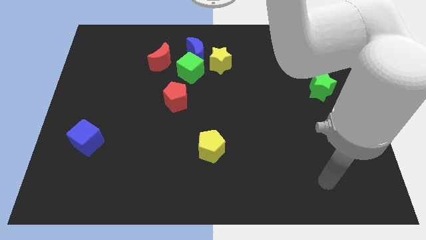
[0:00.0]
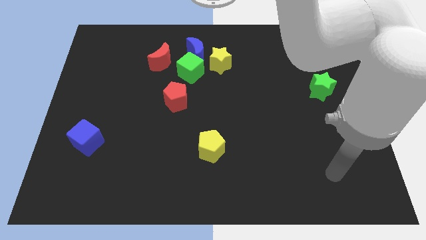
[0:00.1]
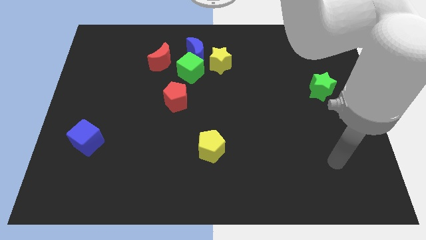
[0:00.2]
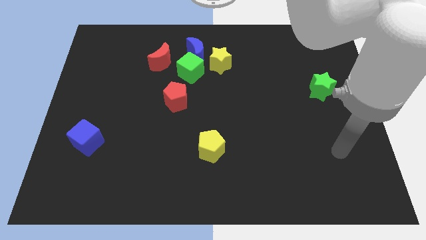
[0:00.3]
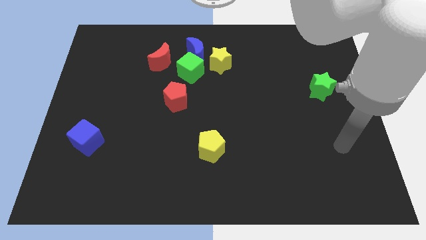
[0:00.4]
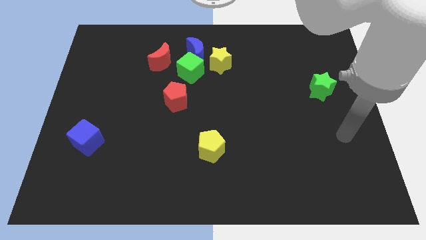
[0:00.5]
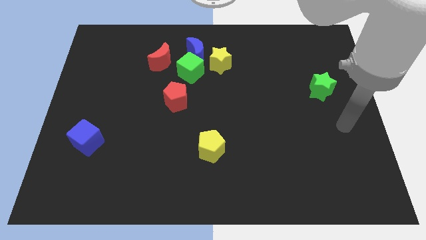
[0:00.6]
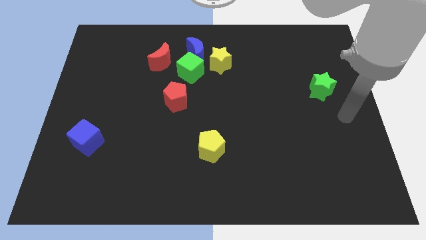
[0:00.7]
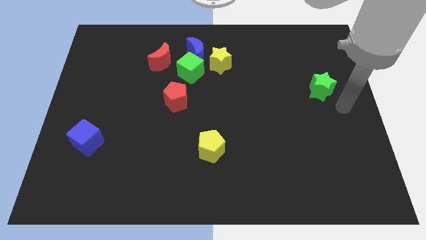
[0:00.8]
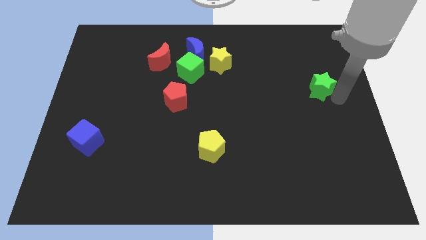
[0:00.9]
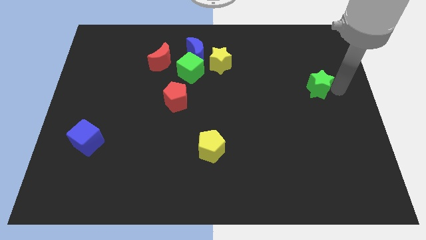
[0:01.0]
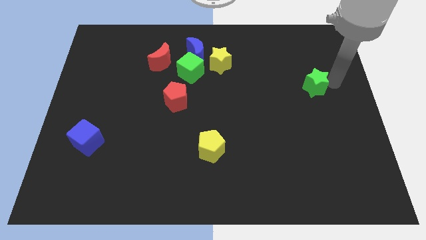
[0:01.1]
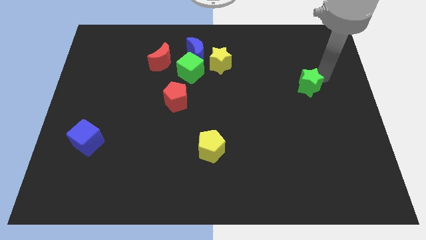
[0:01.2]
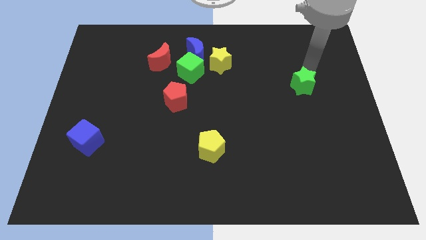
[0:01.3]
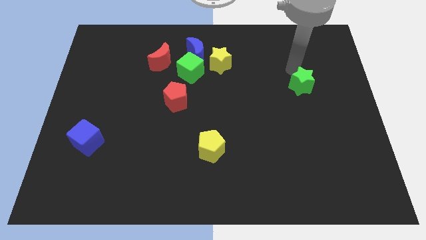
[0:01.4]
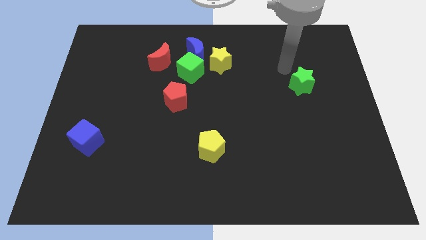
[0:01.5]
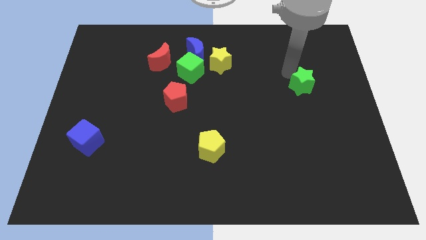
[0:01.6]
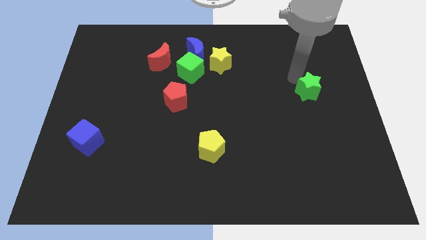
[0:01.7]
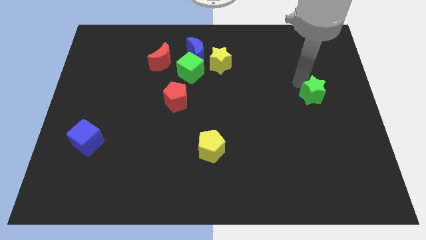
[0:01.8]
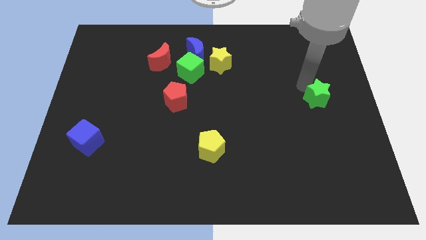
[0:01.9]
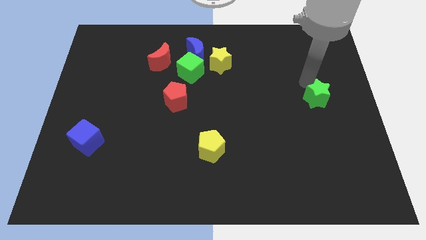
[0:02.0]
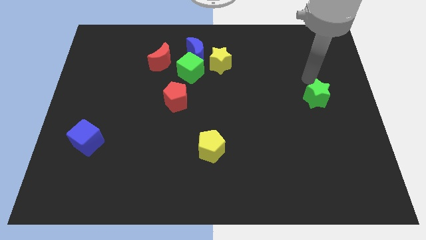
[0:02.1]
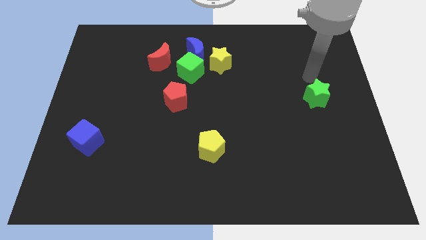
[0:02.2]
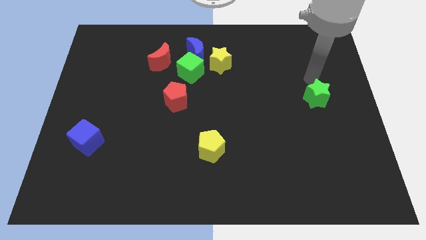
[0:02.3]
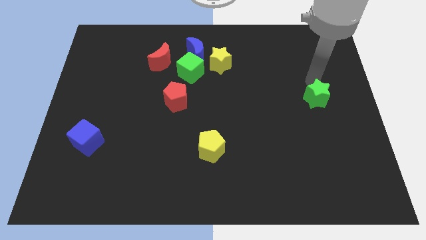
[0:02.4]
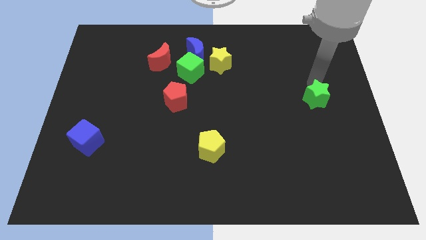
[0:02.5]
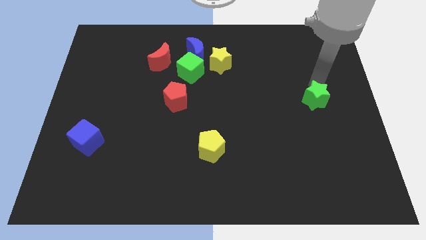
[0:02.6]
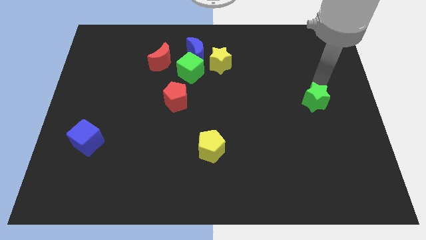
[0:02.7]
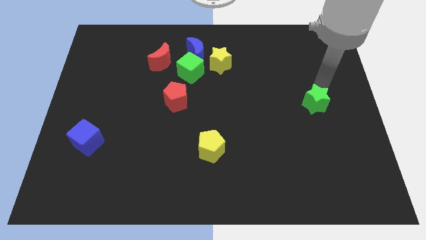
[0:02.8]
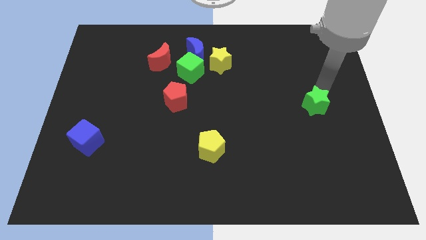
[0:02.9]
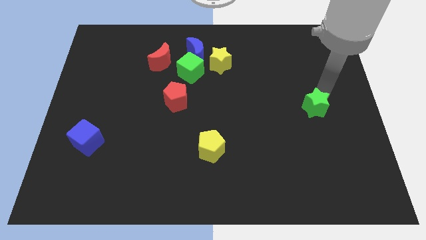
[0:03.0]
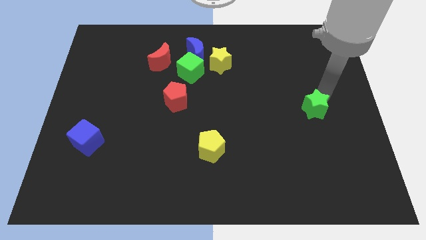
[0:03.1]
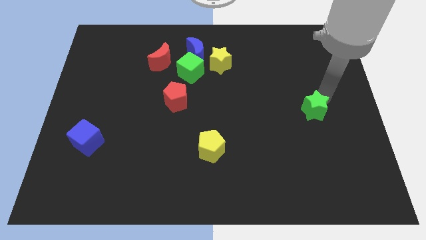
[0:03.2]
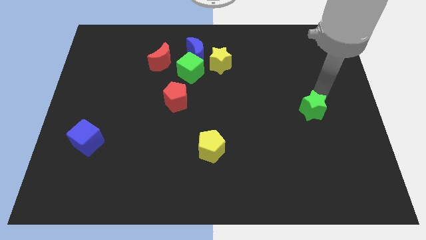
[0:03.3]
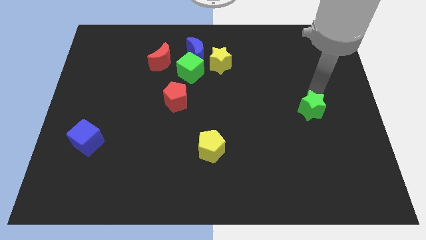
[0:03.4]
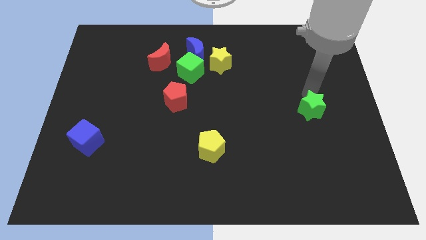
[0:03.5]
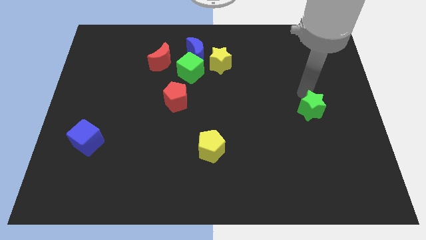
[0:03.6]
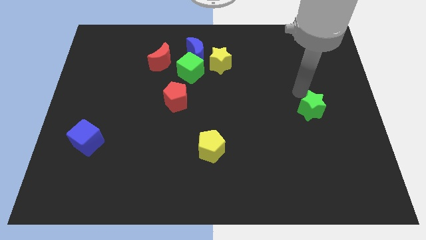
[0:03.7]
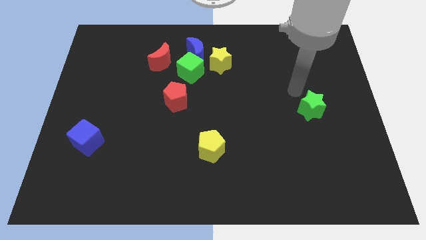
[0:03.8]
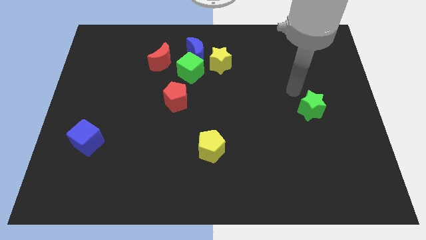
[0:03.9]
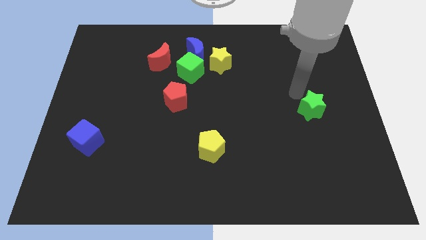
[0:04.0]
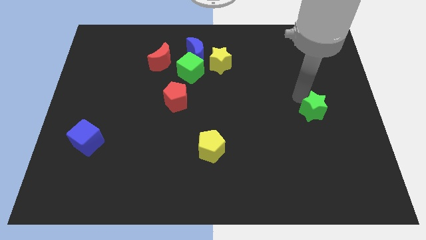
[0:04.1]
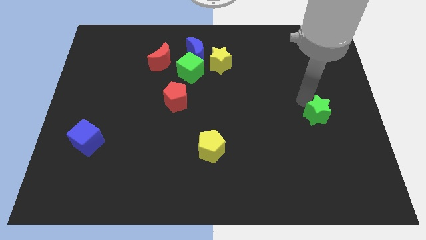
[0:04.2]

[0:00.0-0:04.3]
slightly move the green star downwards

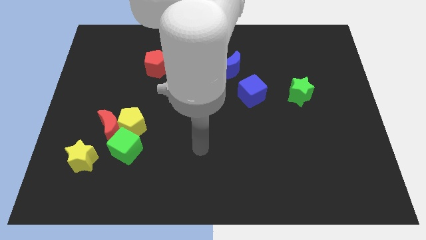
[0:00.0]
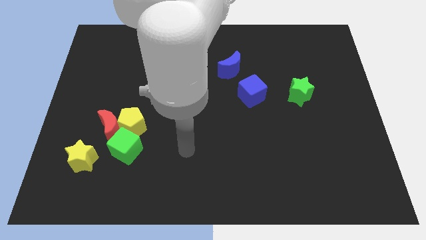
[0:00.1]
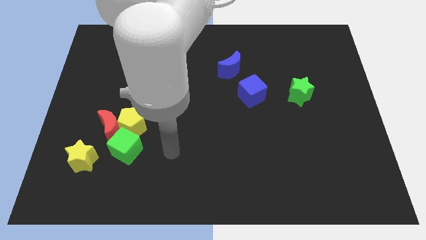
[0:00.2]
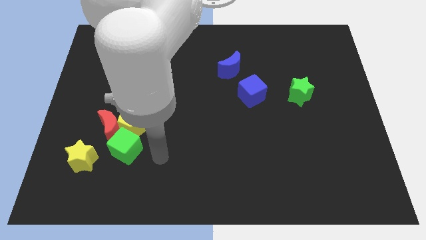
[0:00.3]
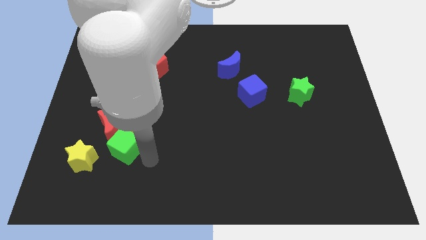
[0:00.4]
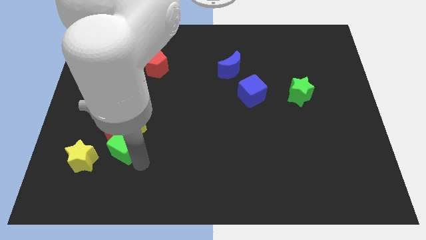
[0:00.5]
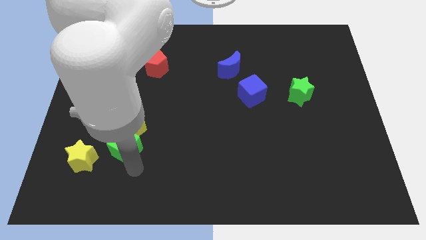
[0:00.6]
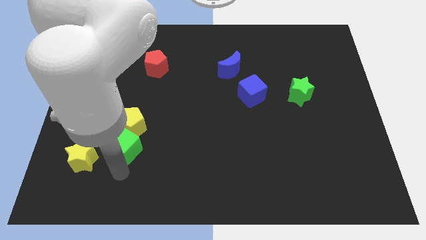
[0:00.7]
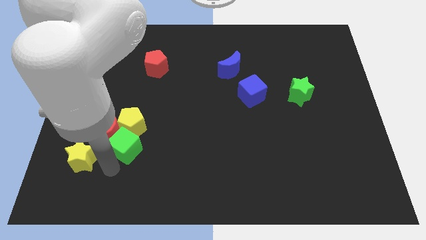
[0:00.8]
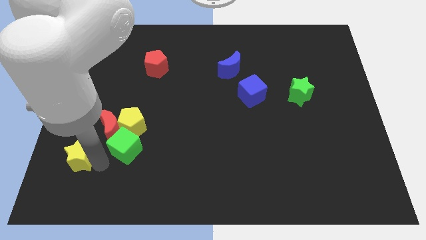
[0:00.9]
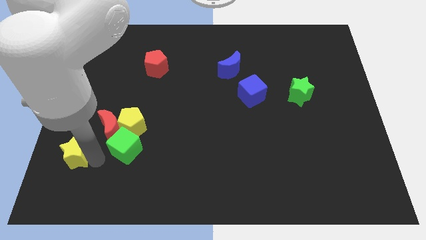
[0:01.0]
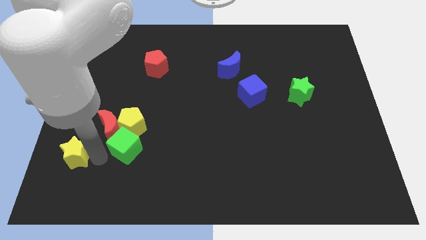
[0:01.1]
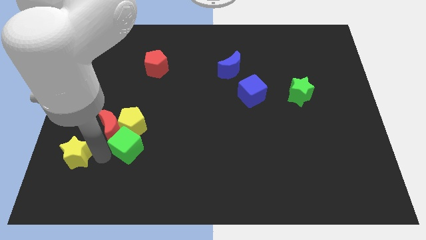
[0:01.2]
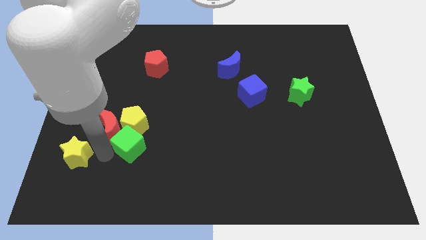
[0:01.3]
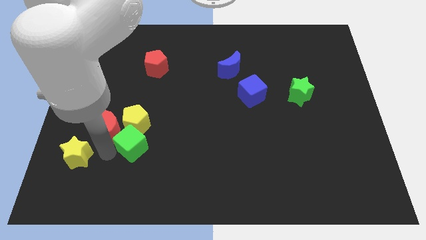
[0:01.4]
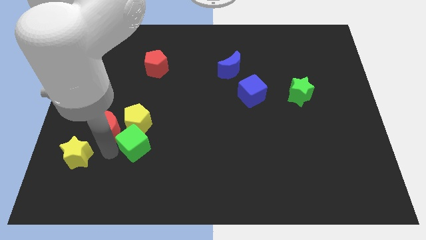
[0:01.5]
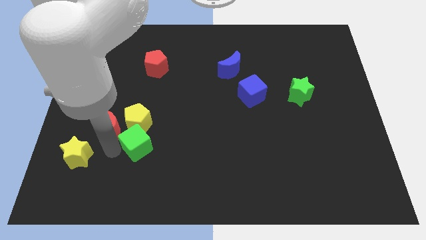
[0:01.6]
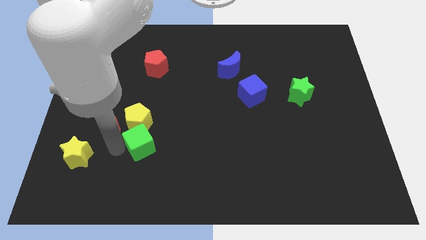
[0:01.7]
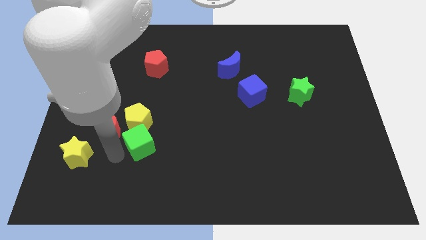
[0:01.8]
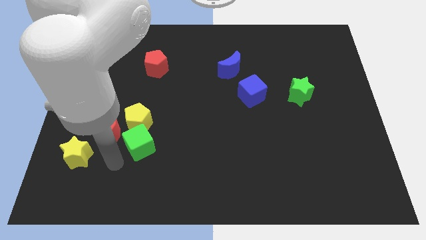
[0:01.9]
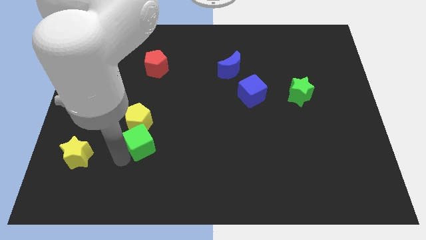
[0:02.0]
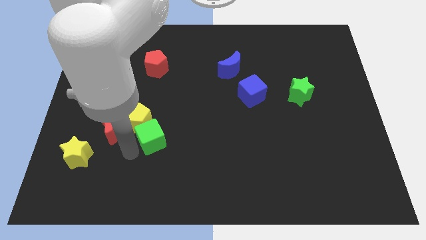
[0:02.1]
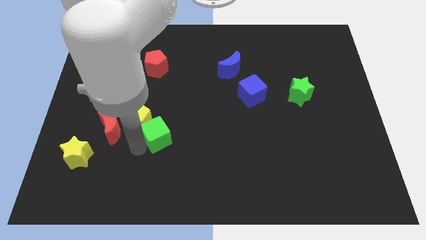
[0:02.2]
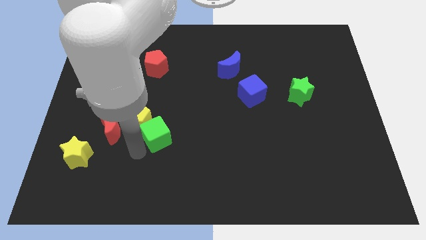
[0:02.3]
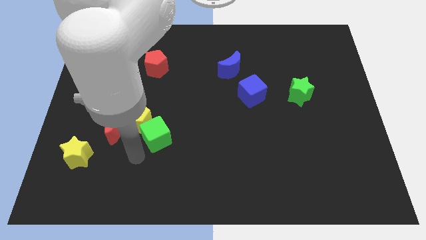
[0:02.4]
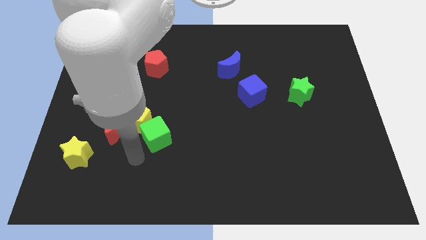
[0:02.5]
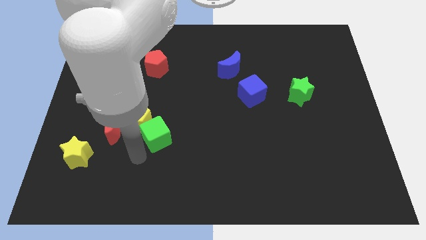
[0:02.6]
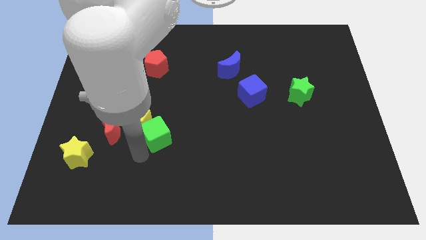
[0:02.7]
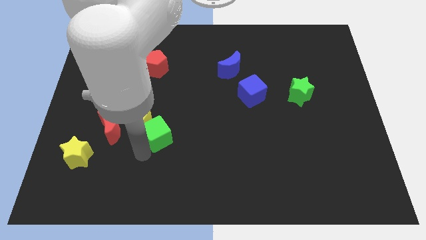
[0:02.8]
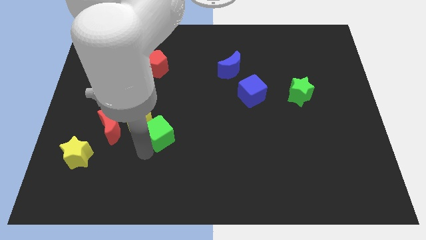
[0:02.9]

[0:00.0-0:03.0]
push the green cube a bit upwards and then to the right

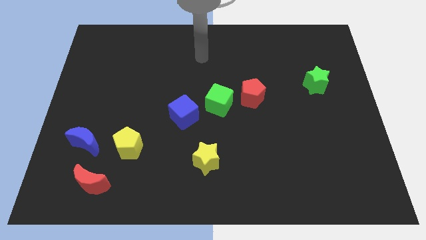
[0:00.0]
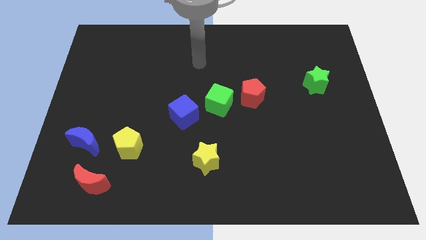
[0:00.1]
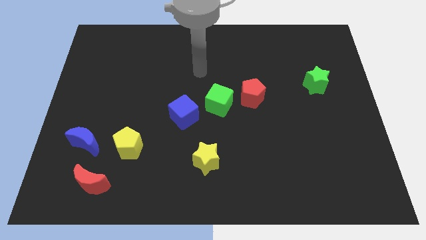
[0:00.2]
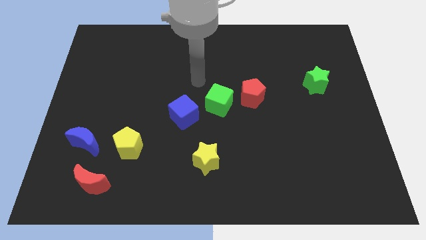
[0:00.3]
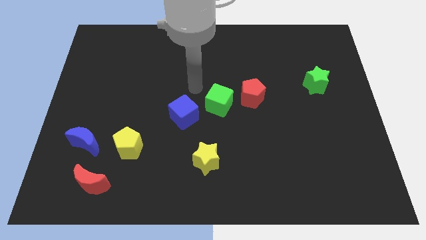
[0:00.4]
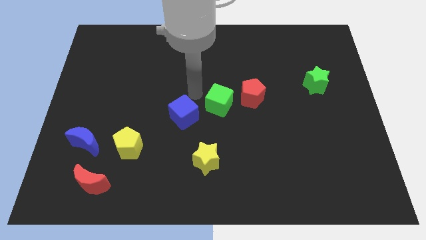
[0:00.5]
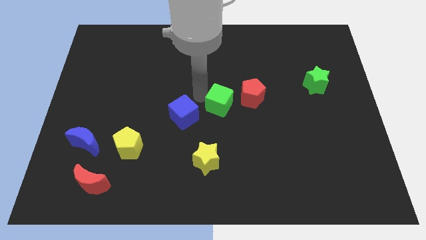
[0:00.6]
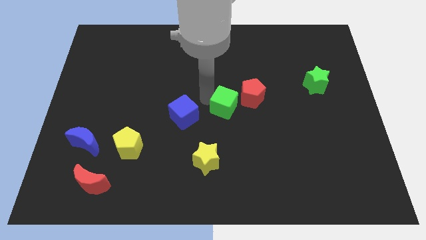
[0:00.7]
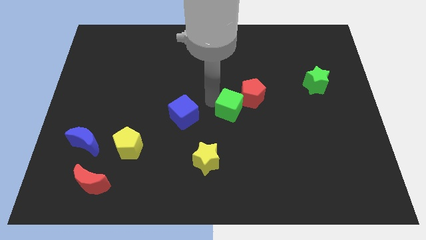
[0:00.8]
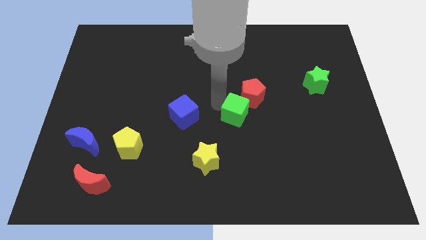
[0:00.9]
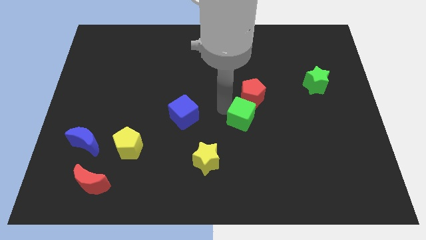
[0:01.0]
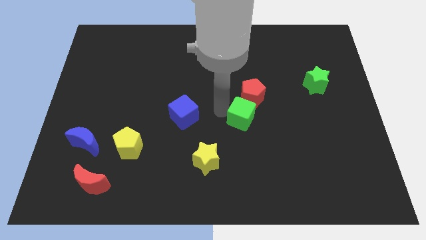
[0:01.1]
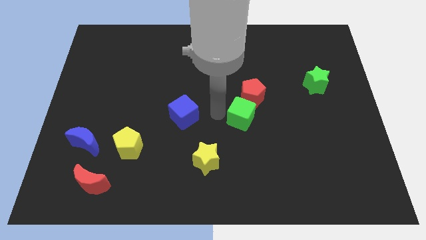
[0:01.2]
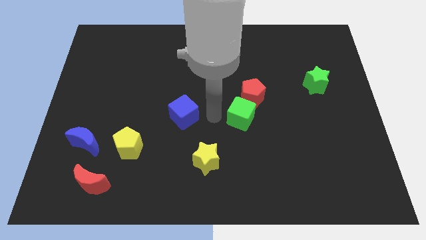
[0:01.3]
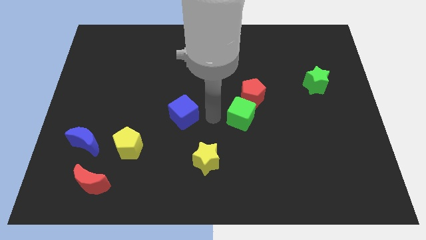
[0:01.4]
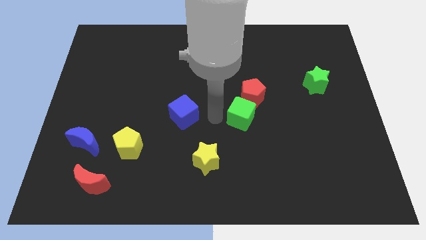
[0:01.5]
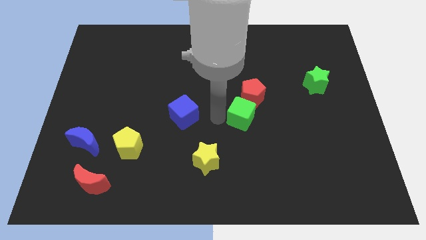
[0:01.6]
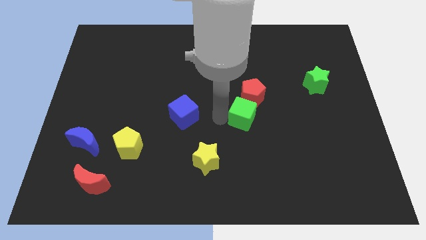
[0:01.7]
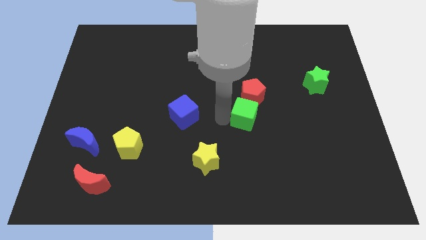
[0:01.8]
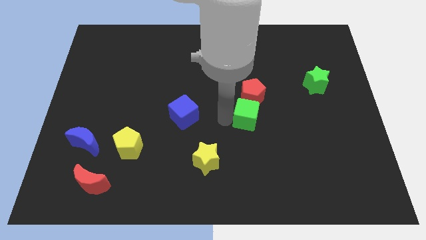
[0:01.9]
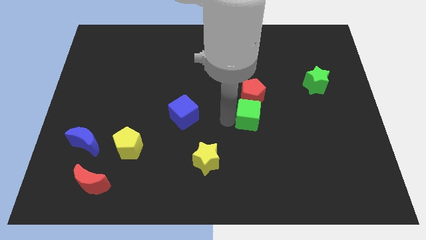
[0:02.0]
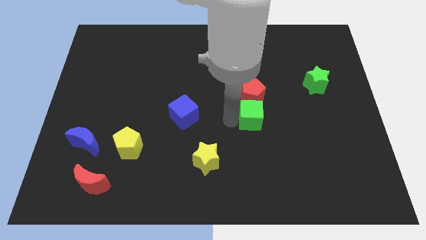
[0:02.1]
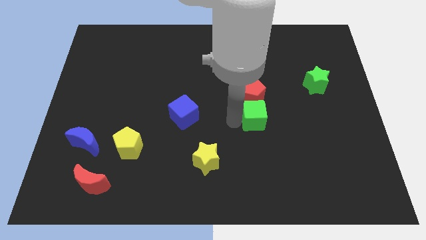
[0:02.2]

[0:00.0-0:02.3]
slide the green cube a little to the right
